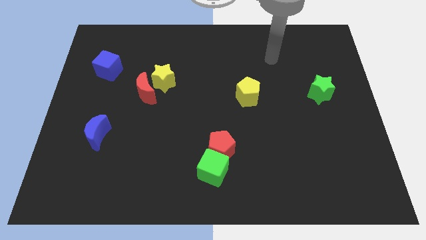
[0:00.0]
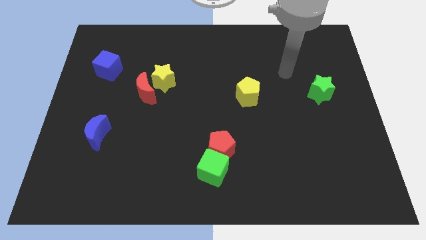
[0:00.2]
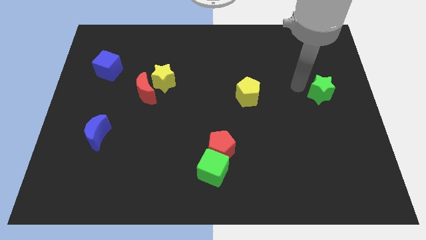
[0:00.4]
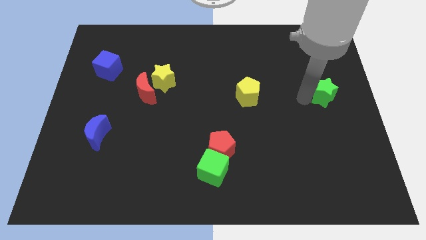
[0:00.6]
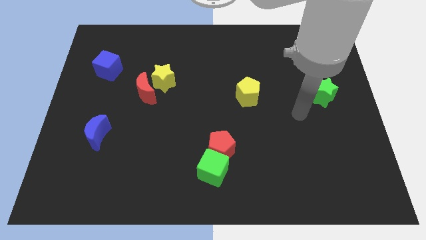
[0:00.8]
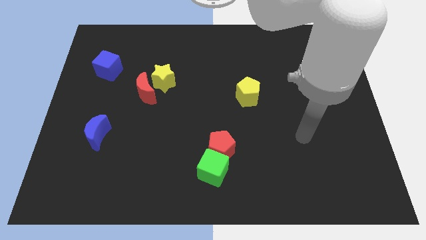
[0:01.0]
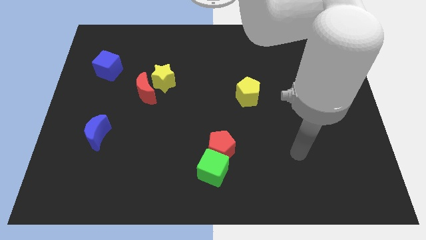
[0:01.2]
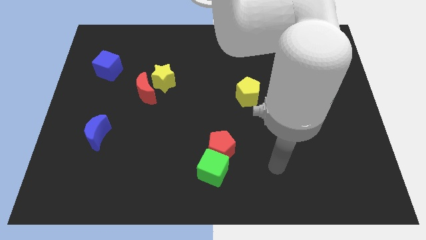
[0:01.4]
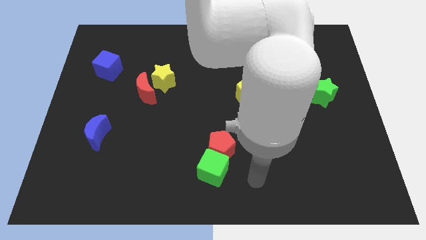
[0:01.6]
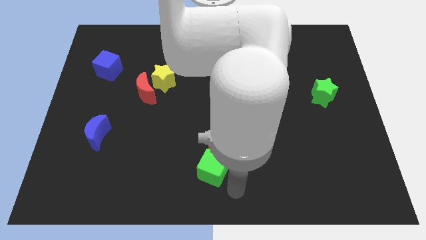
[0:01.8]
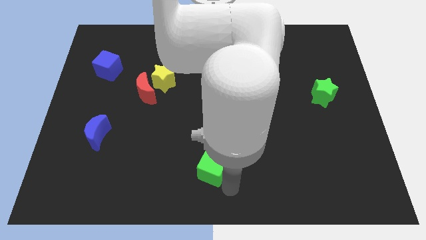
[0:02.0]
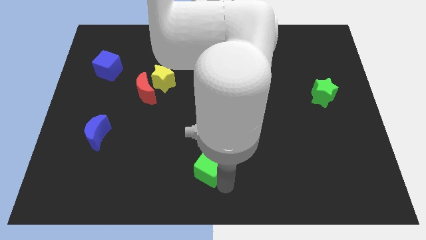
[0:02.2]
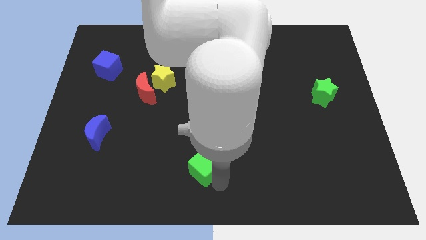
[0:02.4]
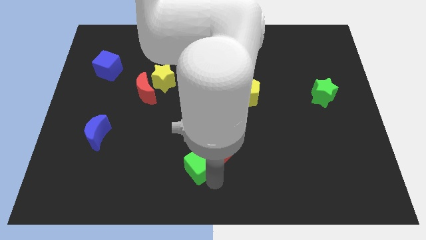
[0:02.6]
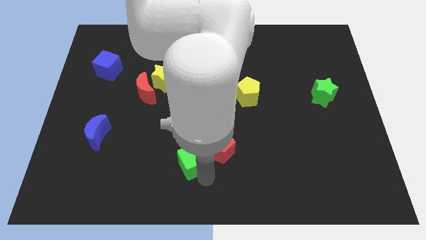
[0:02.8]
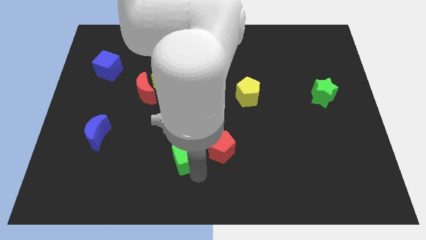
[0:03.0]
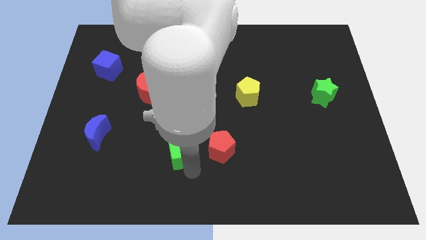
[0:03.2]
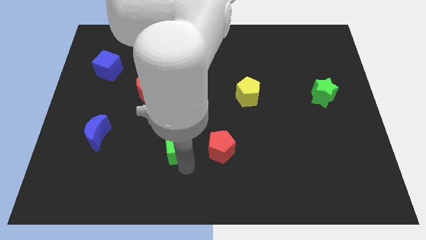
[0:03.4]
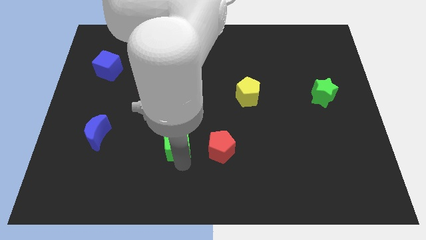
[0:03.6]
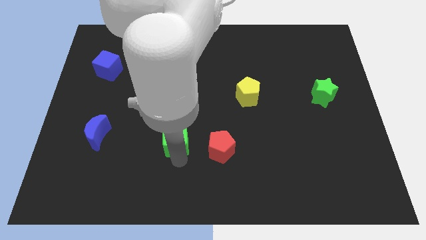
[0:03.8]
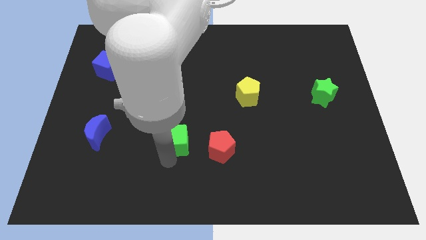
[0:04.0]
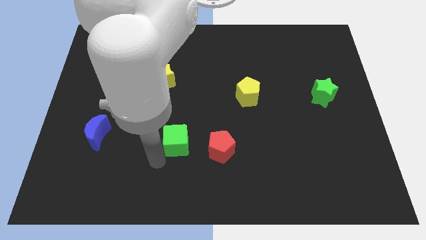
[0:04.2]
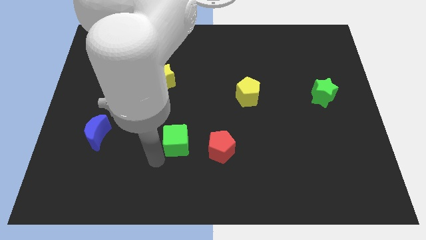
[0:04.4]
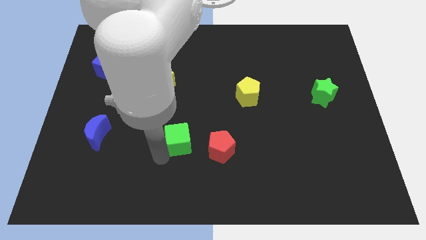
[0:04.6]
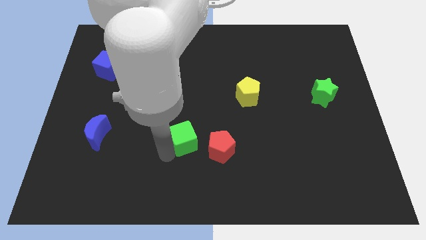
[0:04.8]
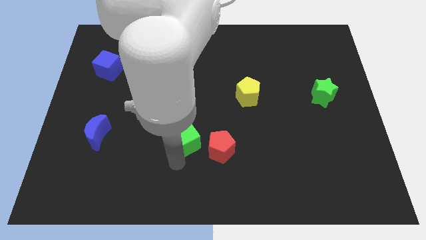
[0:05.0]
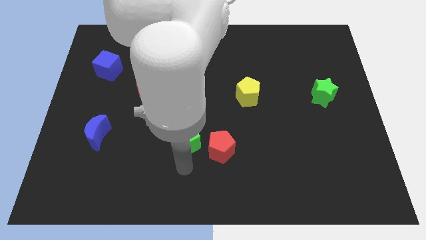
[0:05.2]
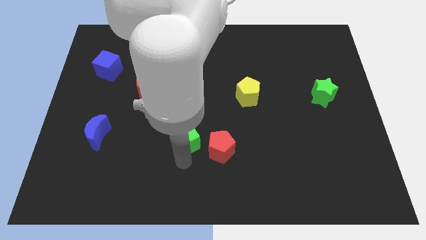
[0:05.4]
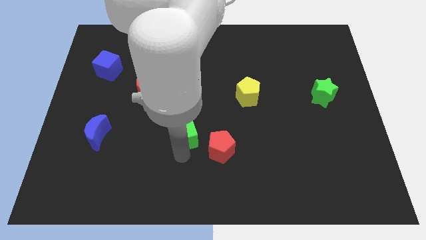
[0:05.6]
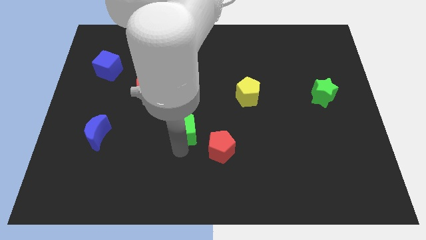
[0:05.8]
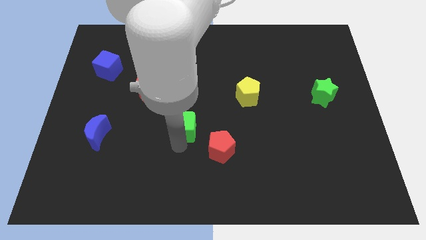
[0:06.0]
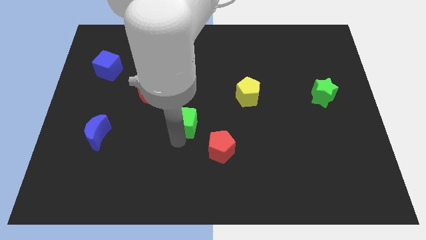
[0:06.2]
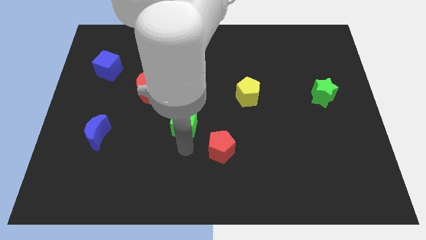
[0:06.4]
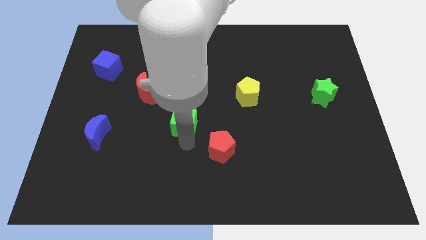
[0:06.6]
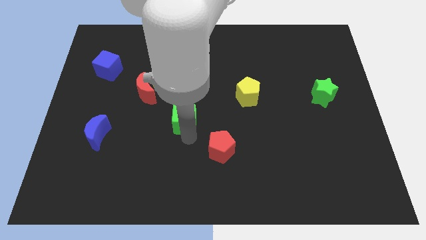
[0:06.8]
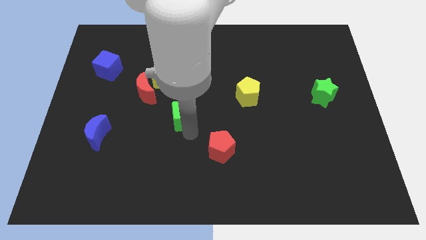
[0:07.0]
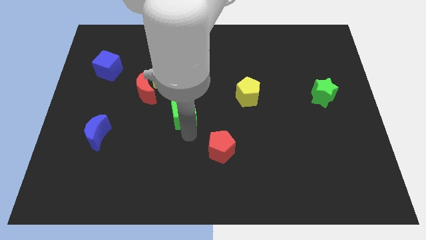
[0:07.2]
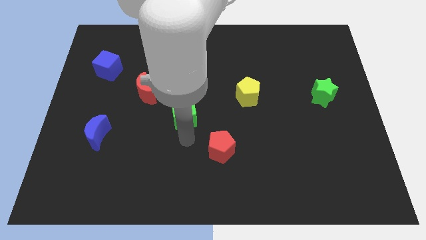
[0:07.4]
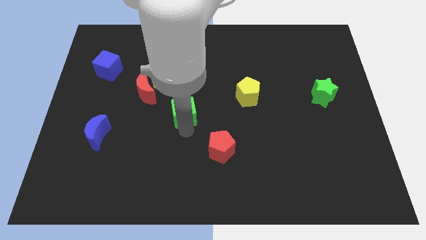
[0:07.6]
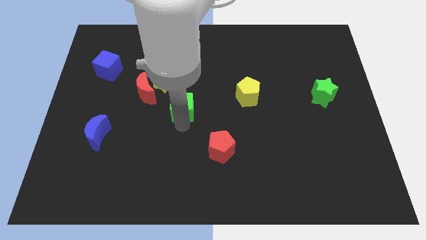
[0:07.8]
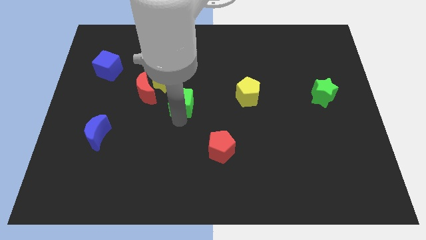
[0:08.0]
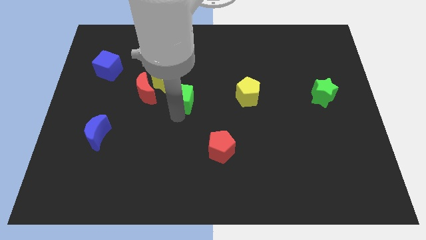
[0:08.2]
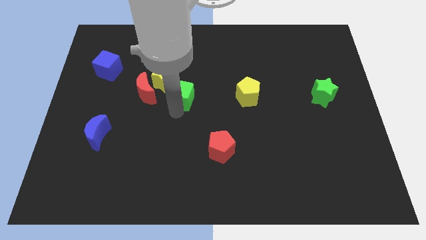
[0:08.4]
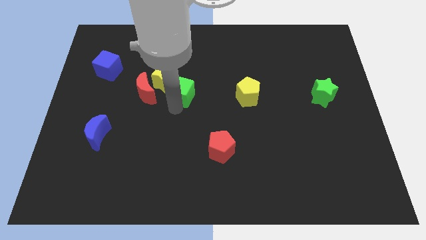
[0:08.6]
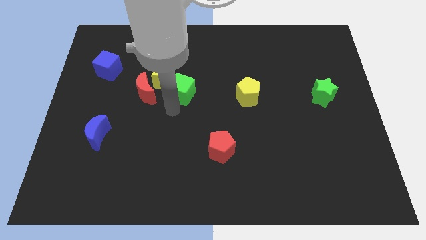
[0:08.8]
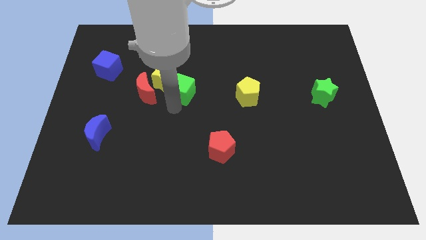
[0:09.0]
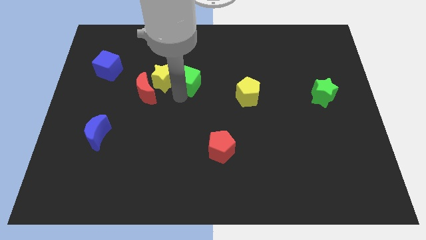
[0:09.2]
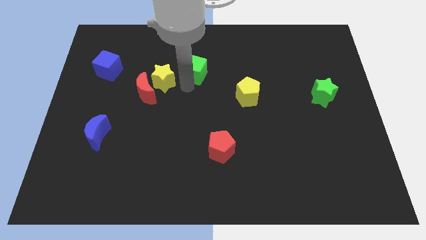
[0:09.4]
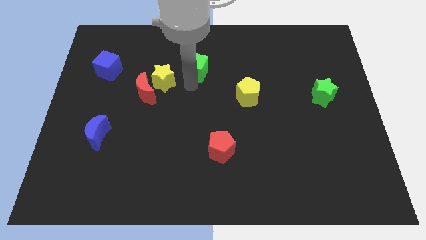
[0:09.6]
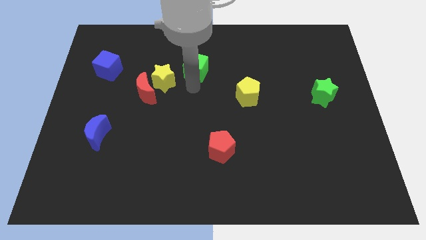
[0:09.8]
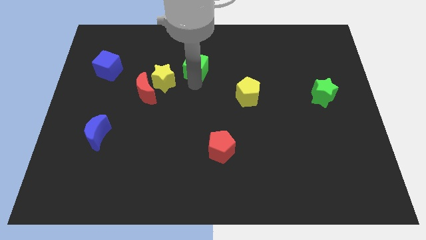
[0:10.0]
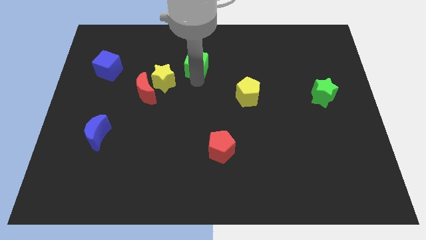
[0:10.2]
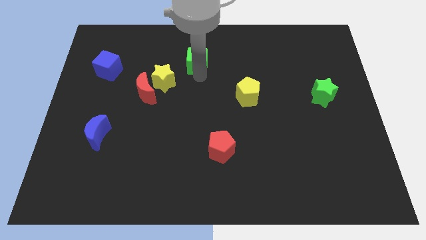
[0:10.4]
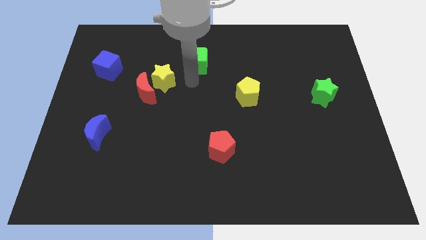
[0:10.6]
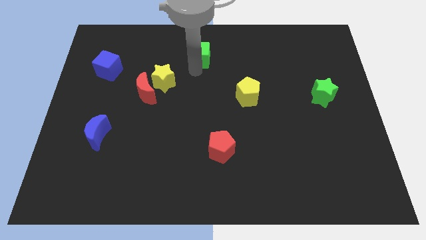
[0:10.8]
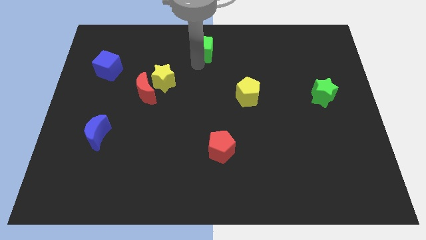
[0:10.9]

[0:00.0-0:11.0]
move the green cube to the top side

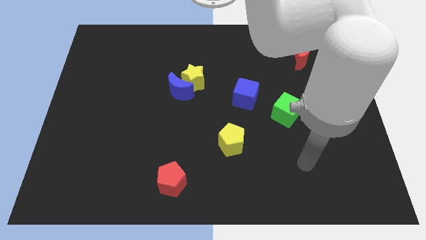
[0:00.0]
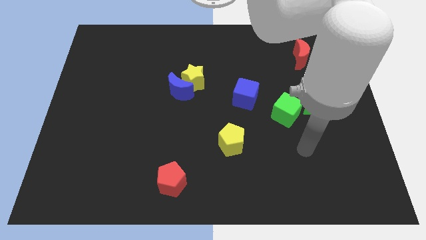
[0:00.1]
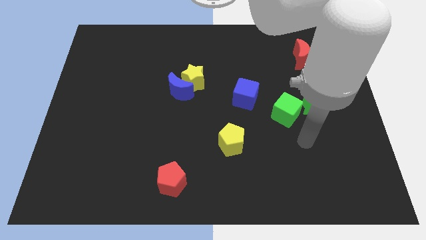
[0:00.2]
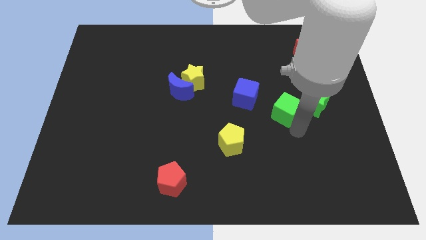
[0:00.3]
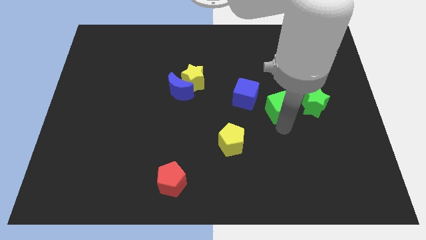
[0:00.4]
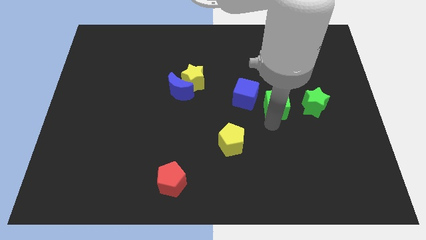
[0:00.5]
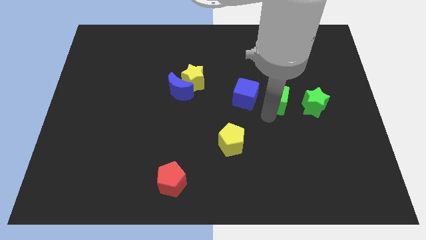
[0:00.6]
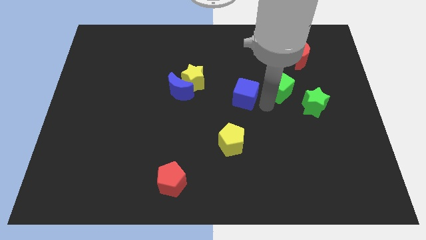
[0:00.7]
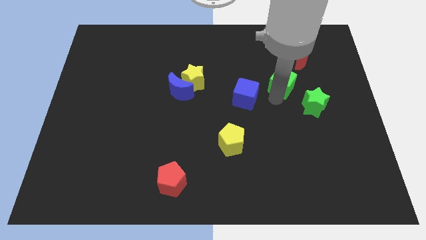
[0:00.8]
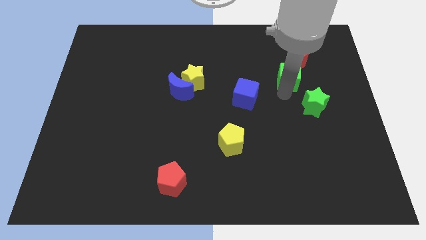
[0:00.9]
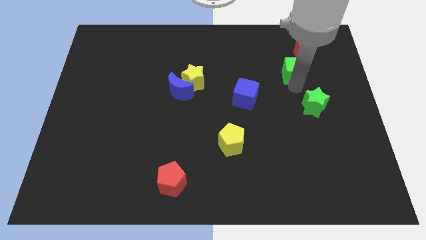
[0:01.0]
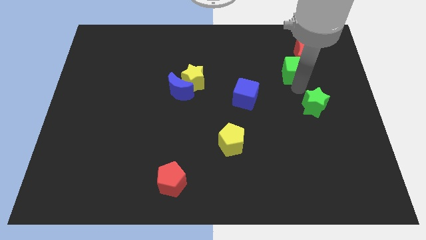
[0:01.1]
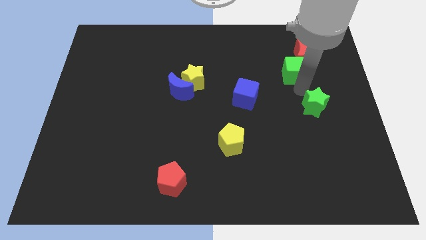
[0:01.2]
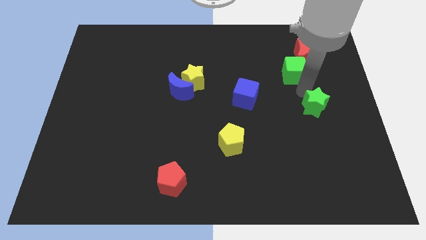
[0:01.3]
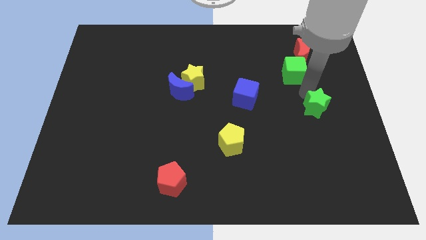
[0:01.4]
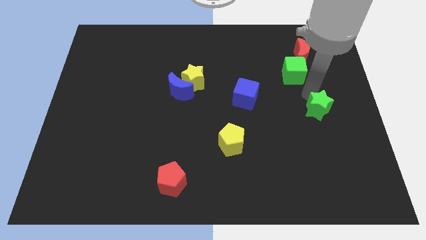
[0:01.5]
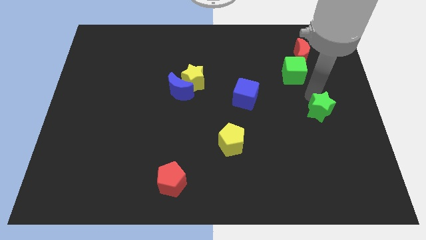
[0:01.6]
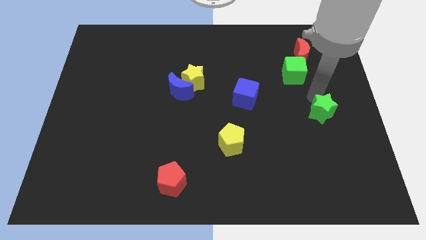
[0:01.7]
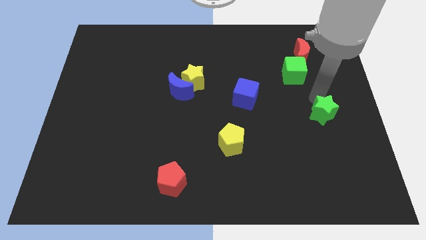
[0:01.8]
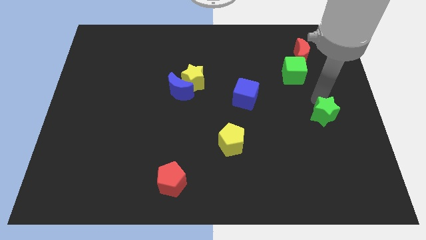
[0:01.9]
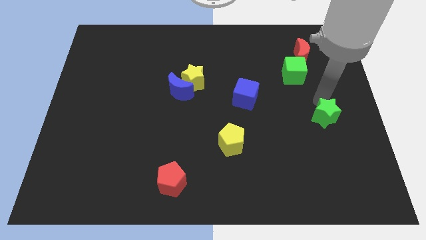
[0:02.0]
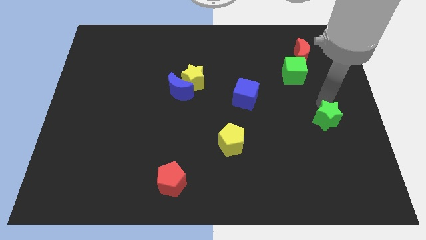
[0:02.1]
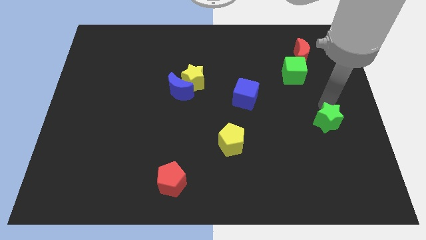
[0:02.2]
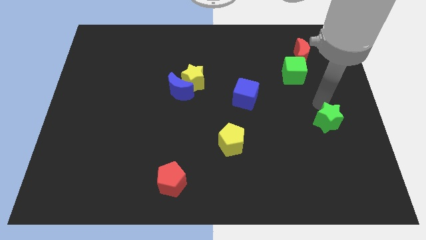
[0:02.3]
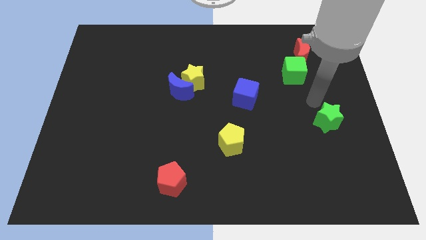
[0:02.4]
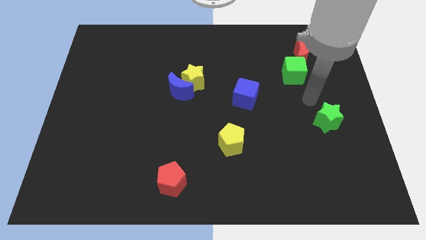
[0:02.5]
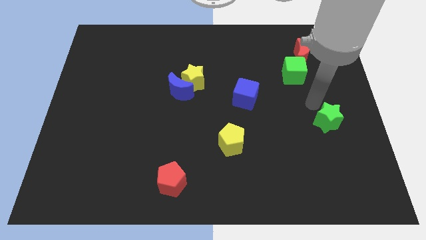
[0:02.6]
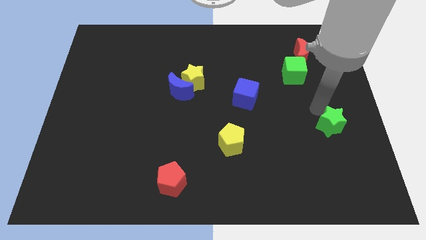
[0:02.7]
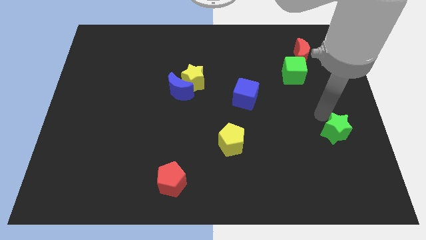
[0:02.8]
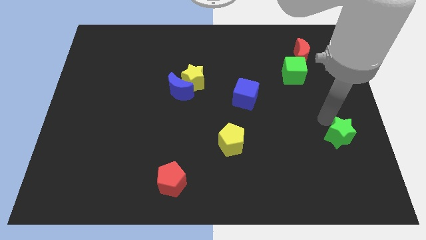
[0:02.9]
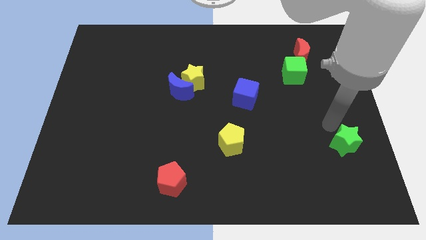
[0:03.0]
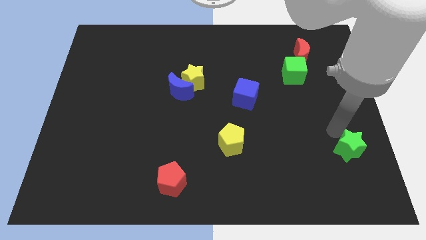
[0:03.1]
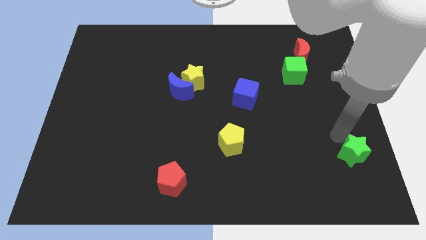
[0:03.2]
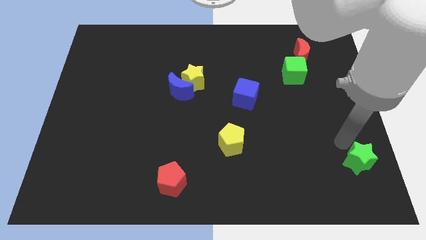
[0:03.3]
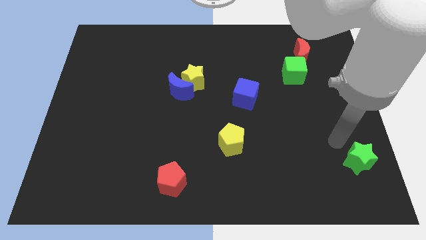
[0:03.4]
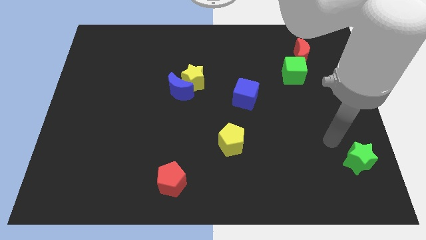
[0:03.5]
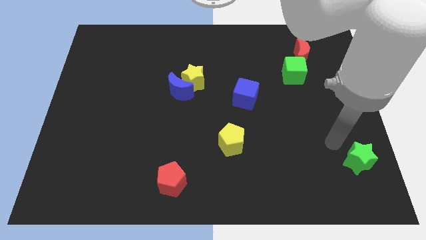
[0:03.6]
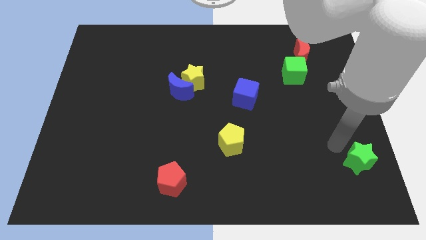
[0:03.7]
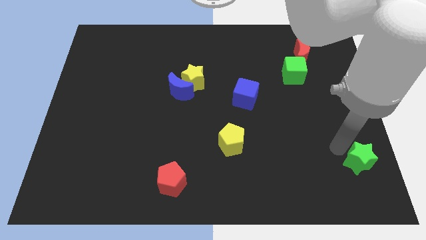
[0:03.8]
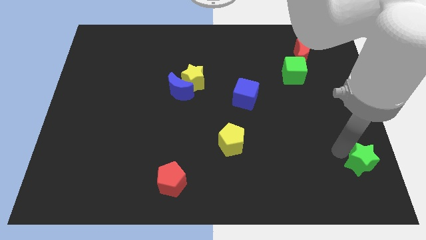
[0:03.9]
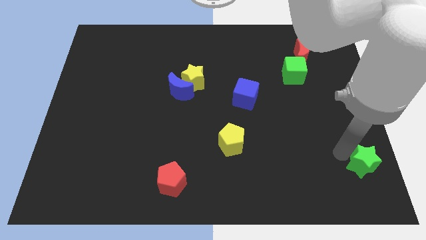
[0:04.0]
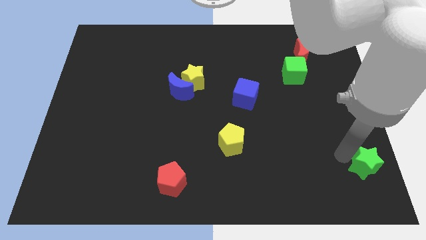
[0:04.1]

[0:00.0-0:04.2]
push the green star to the bottom right of the board
